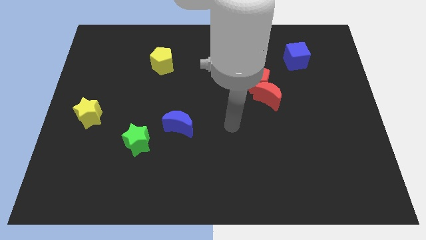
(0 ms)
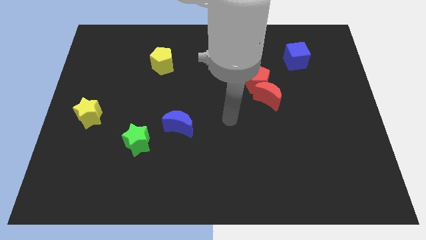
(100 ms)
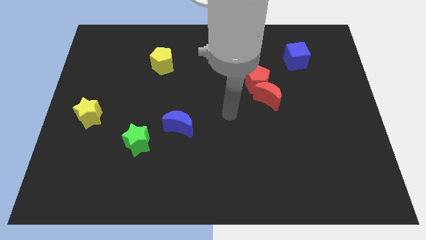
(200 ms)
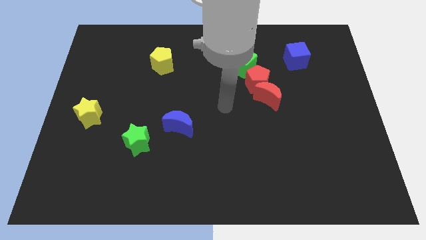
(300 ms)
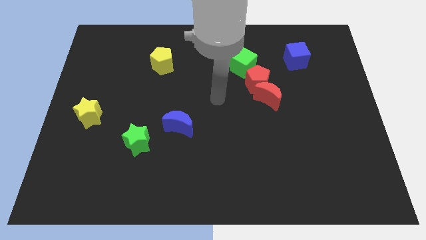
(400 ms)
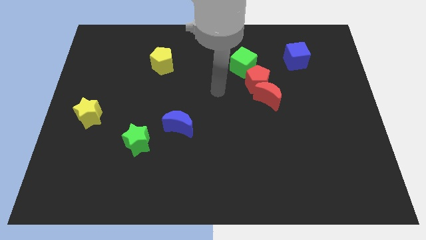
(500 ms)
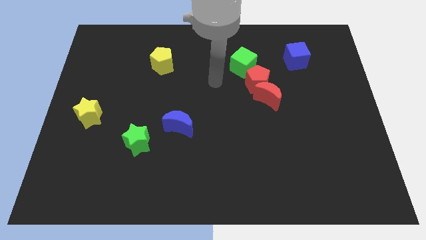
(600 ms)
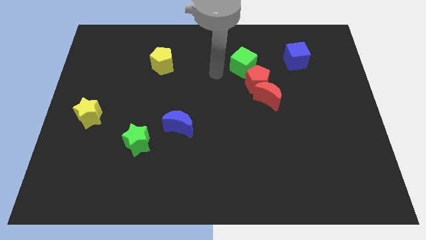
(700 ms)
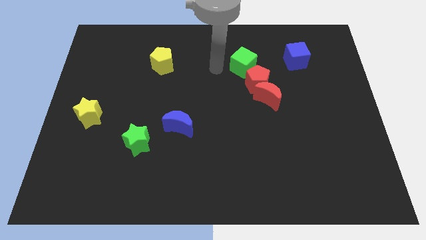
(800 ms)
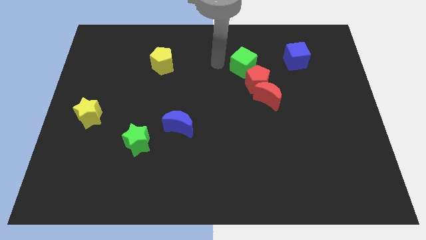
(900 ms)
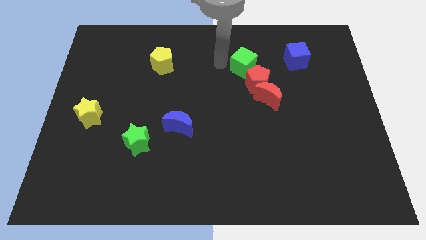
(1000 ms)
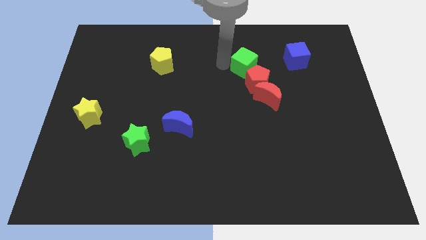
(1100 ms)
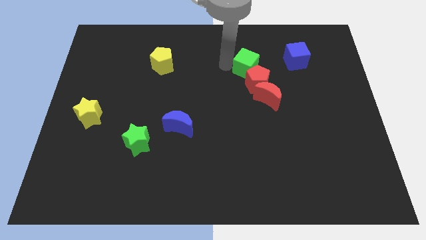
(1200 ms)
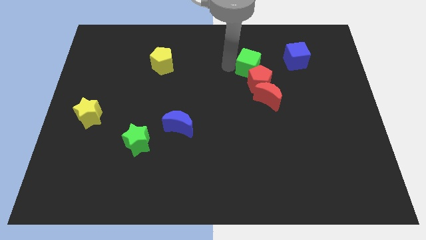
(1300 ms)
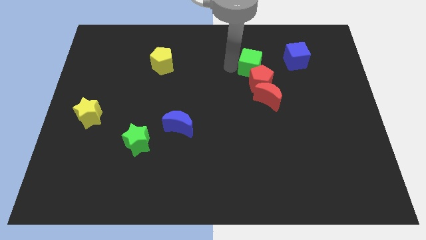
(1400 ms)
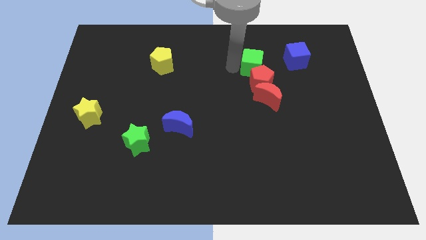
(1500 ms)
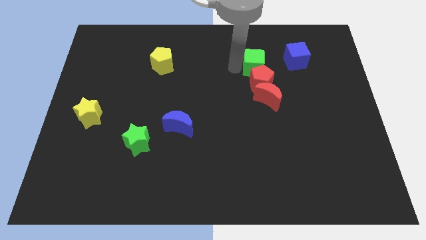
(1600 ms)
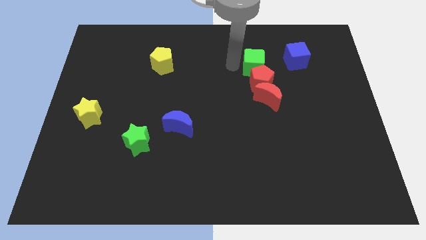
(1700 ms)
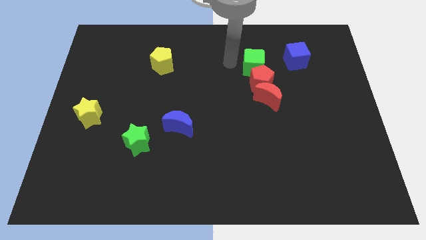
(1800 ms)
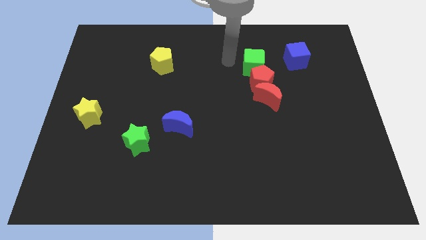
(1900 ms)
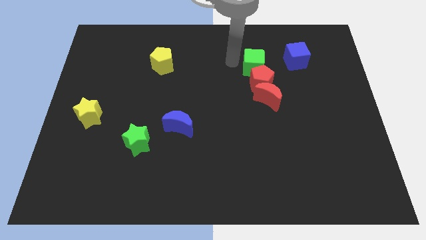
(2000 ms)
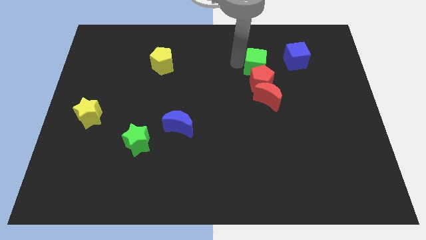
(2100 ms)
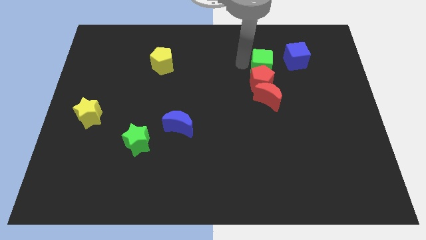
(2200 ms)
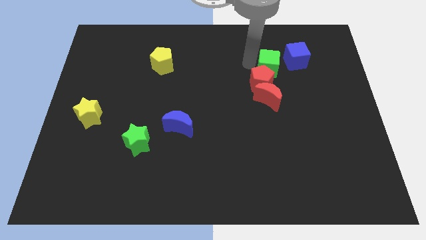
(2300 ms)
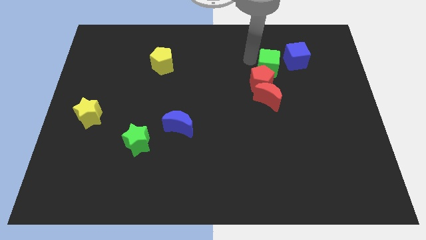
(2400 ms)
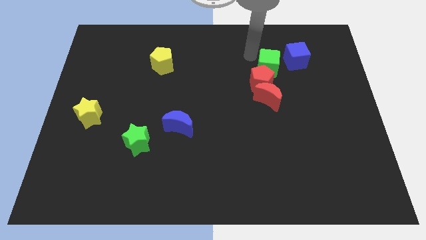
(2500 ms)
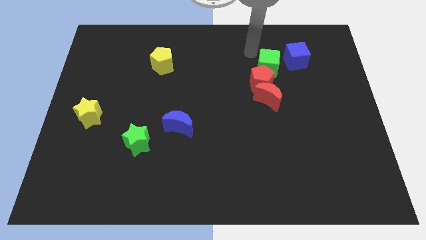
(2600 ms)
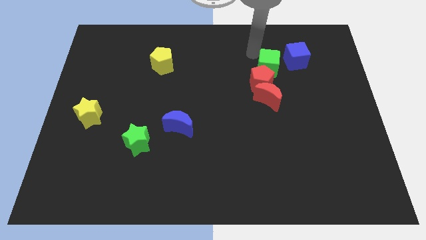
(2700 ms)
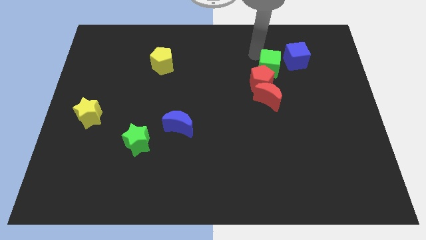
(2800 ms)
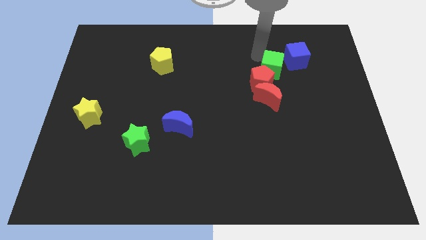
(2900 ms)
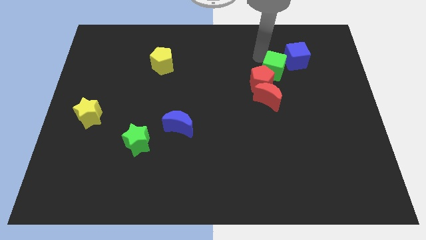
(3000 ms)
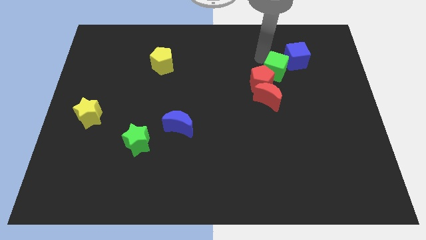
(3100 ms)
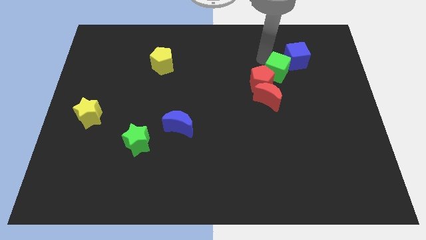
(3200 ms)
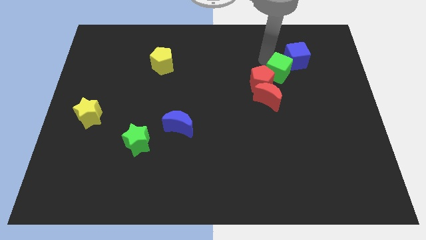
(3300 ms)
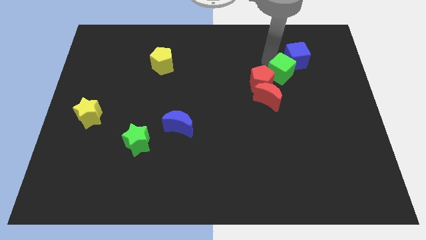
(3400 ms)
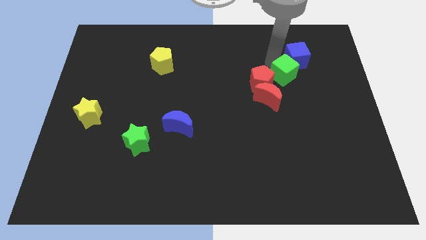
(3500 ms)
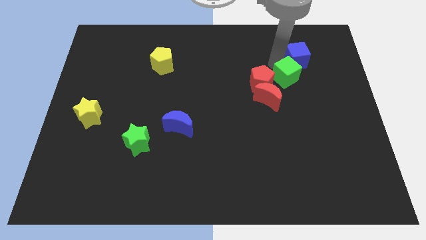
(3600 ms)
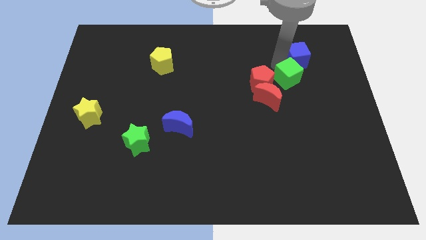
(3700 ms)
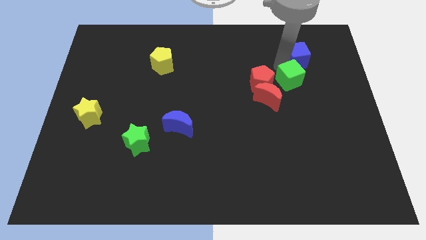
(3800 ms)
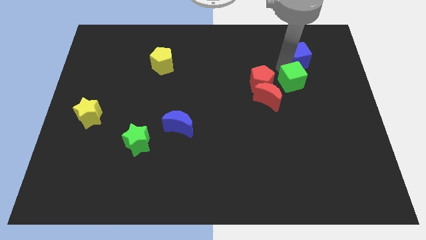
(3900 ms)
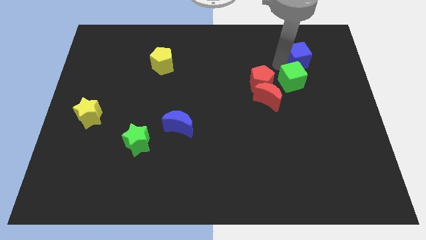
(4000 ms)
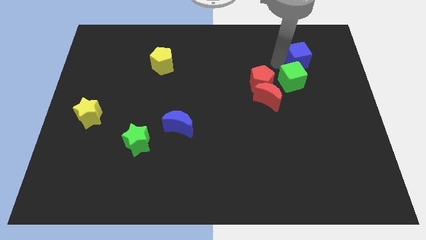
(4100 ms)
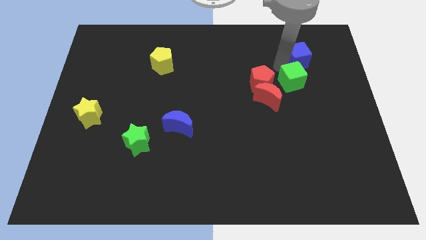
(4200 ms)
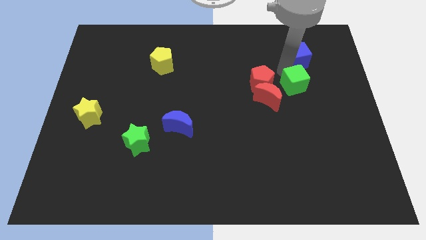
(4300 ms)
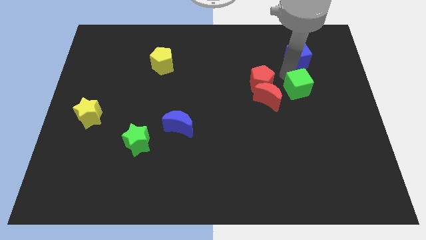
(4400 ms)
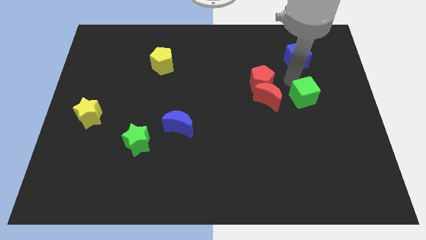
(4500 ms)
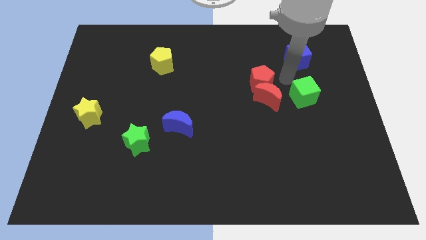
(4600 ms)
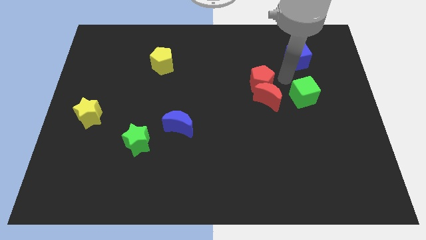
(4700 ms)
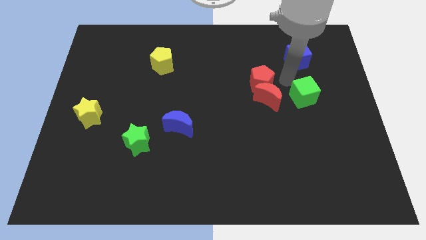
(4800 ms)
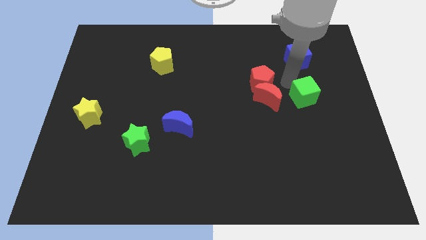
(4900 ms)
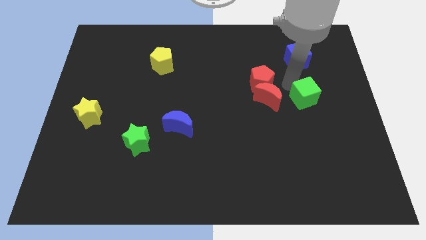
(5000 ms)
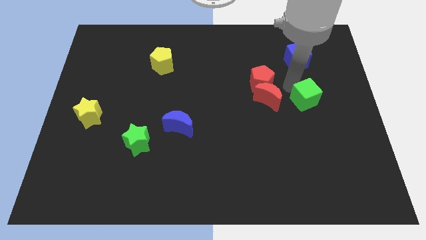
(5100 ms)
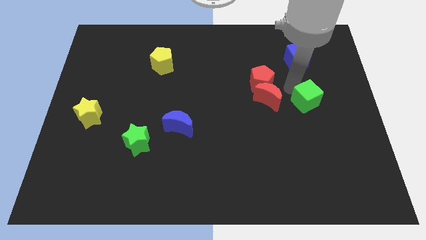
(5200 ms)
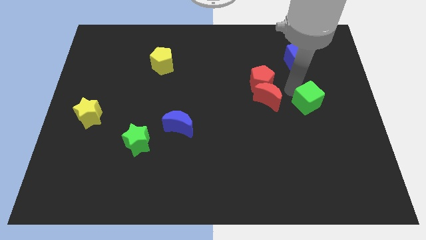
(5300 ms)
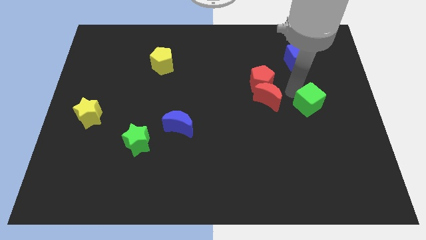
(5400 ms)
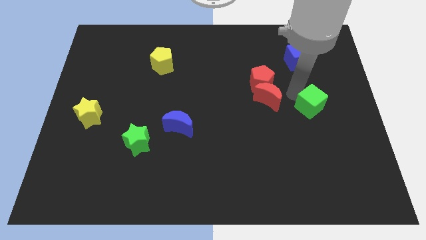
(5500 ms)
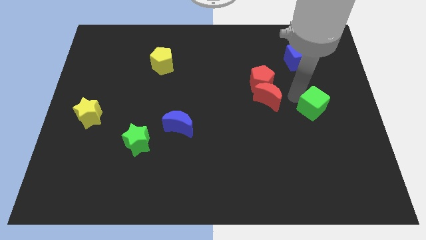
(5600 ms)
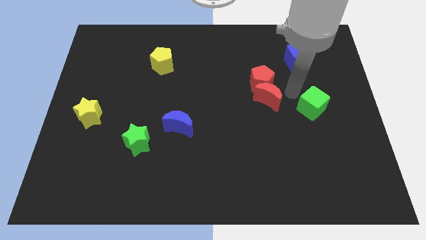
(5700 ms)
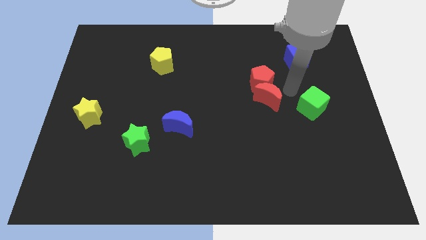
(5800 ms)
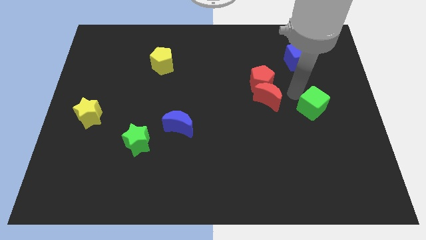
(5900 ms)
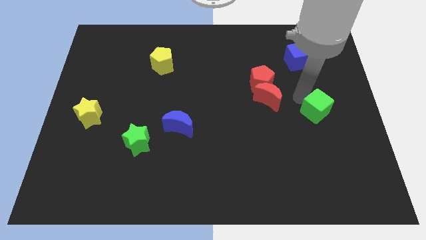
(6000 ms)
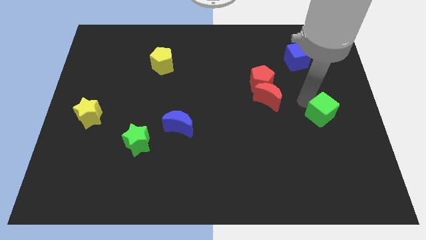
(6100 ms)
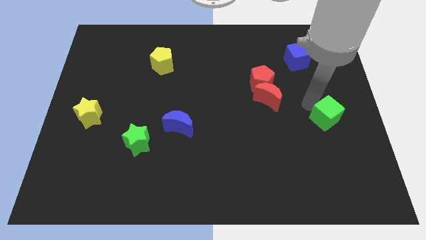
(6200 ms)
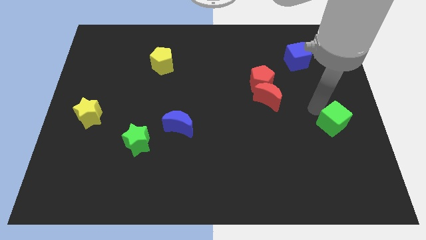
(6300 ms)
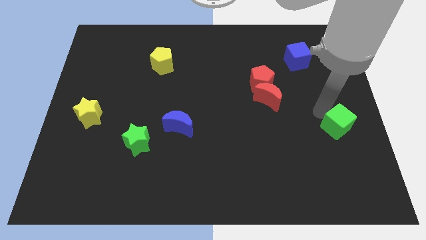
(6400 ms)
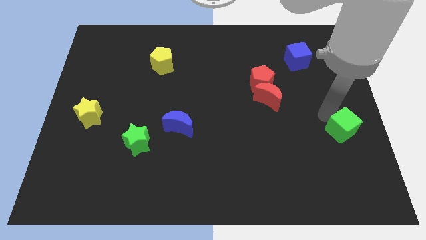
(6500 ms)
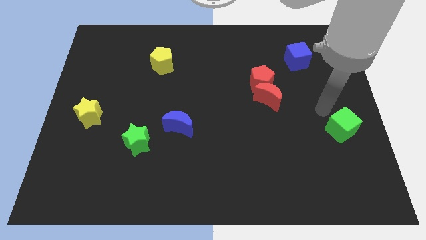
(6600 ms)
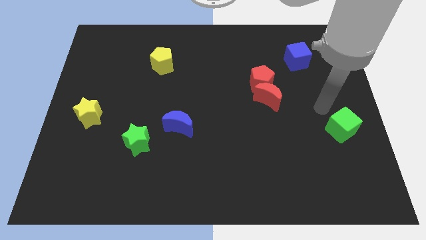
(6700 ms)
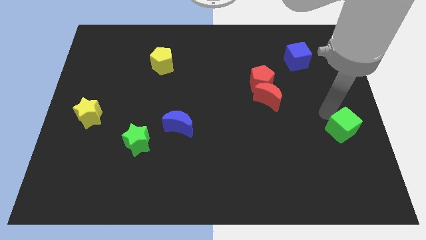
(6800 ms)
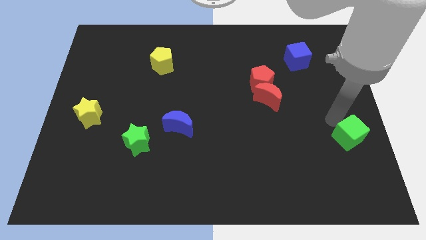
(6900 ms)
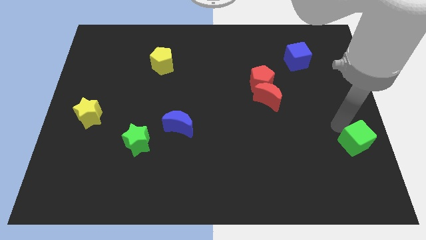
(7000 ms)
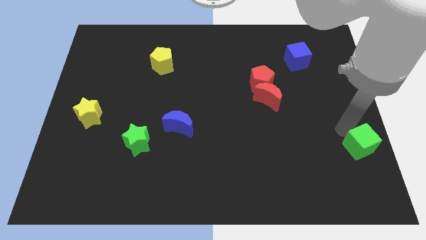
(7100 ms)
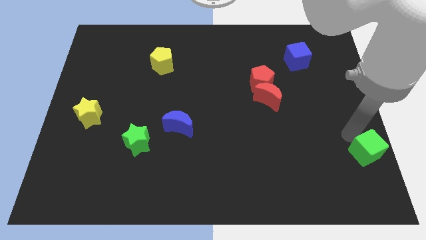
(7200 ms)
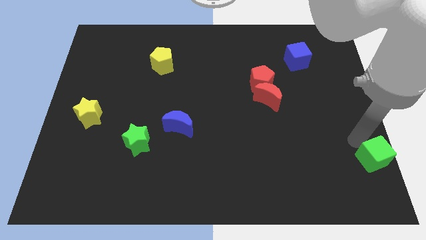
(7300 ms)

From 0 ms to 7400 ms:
put the green cube to the bottom right

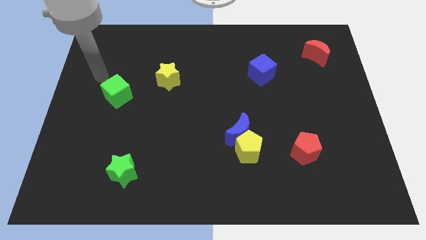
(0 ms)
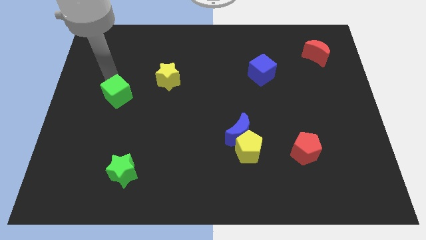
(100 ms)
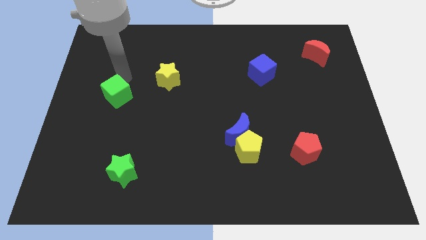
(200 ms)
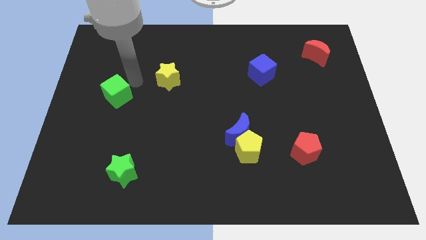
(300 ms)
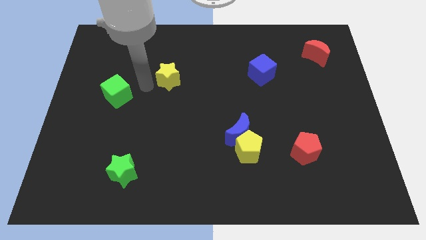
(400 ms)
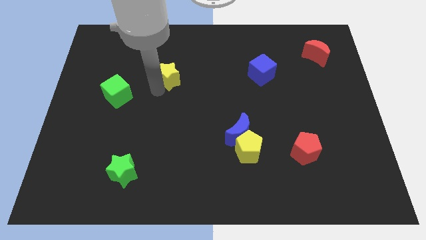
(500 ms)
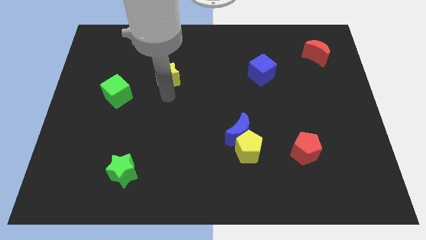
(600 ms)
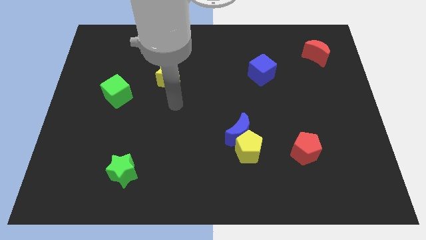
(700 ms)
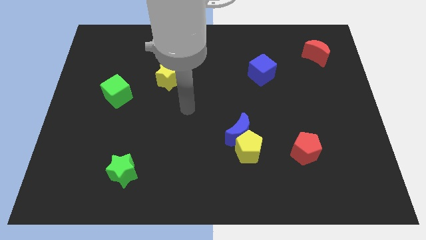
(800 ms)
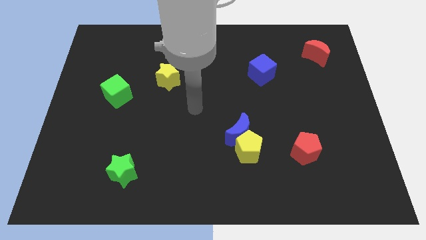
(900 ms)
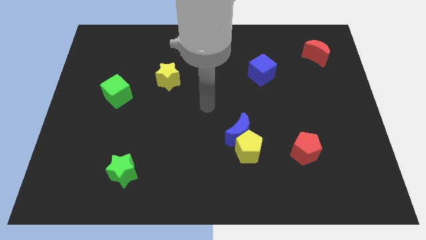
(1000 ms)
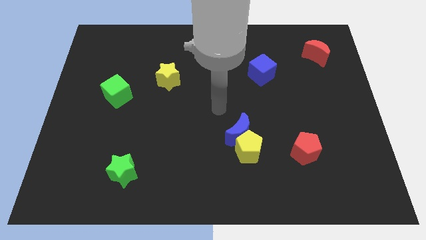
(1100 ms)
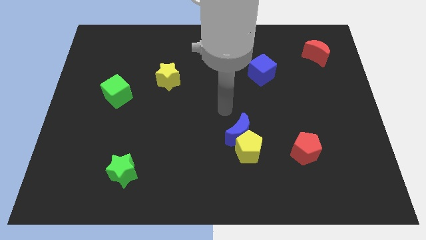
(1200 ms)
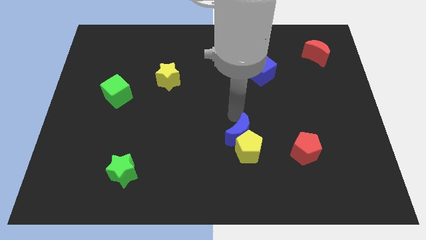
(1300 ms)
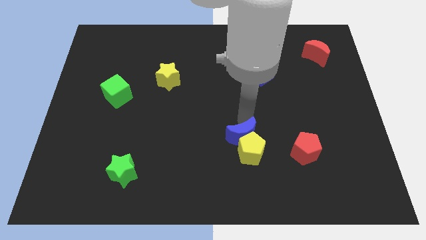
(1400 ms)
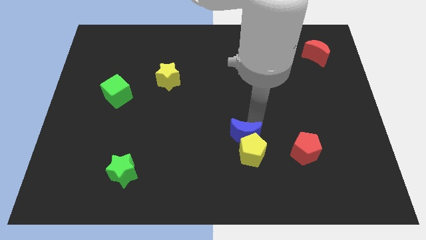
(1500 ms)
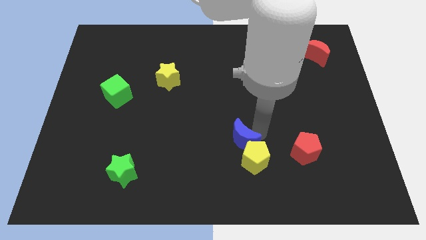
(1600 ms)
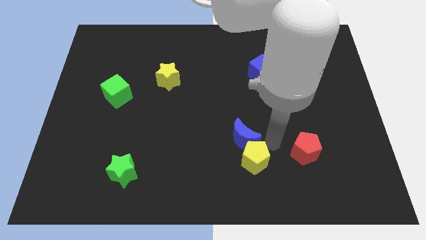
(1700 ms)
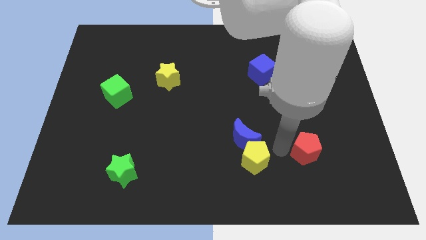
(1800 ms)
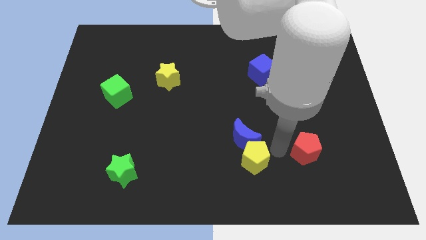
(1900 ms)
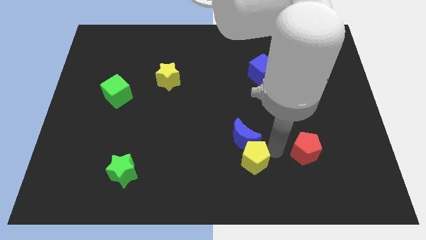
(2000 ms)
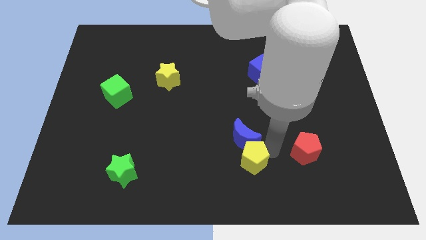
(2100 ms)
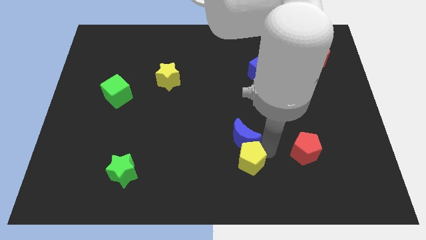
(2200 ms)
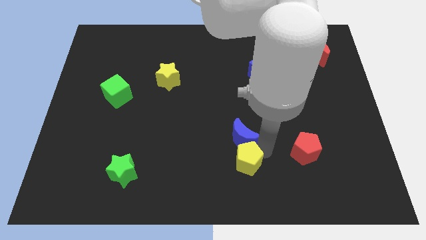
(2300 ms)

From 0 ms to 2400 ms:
put the yellow pentagon to the bottom
